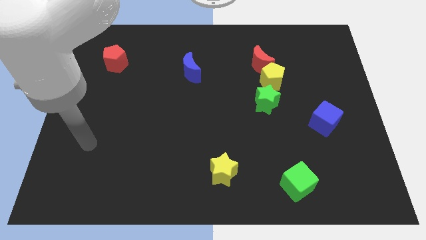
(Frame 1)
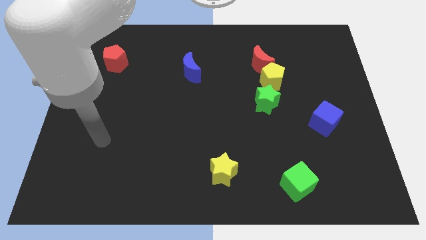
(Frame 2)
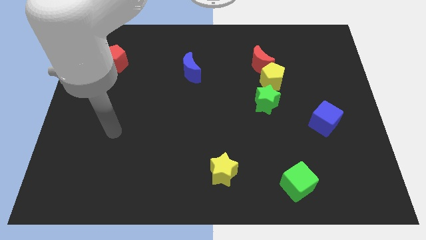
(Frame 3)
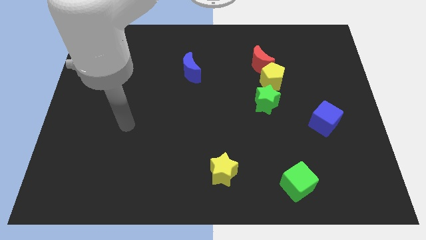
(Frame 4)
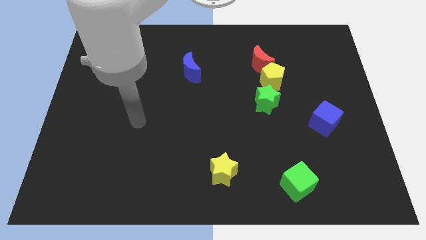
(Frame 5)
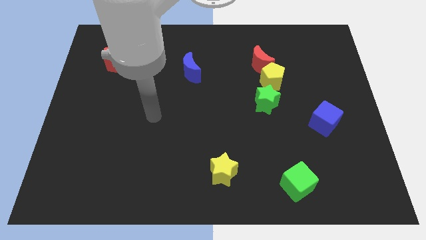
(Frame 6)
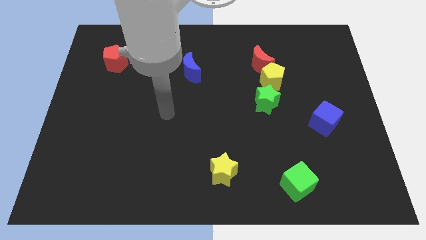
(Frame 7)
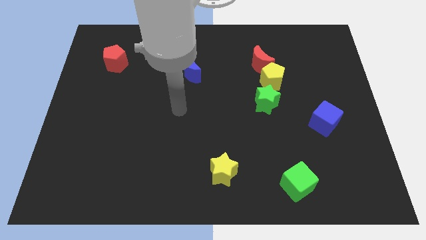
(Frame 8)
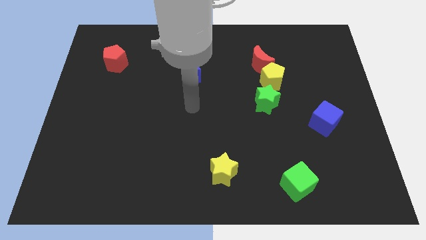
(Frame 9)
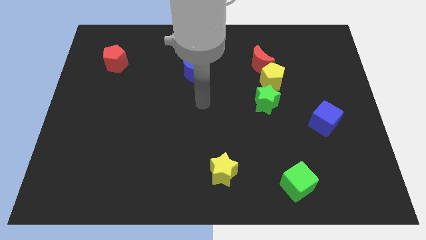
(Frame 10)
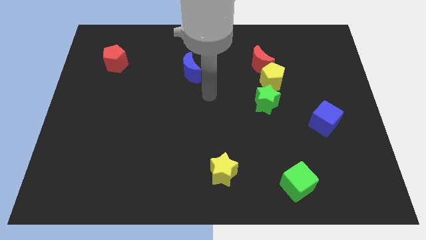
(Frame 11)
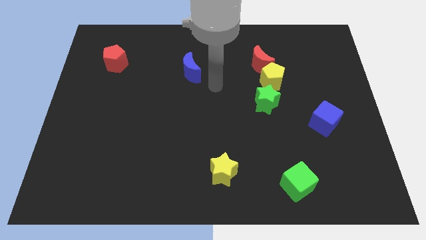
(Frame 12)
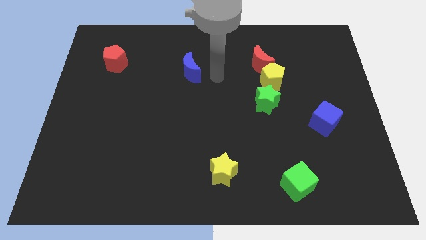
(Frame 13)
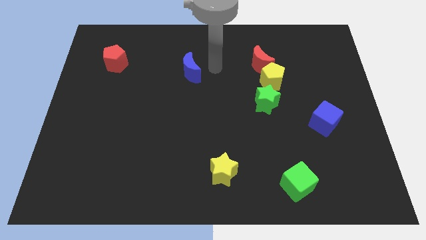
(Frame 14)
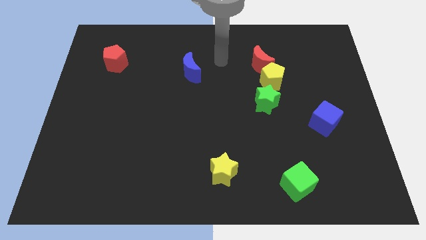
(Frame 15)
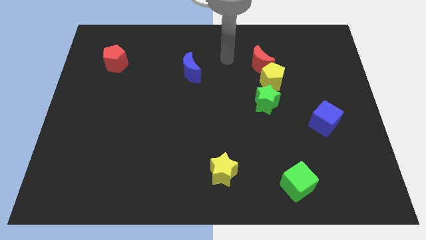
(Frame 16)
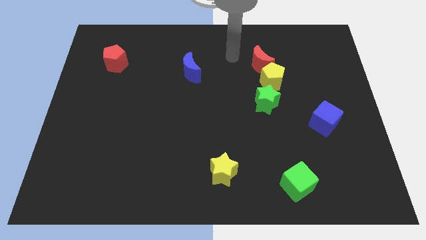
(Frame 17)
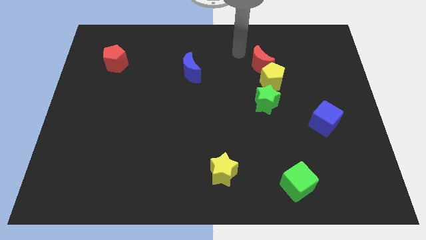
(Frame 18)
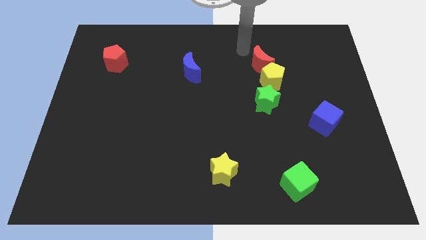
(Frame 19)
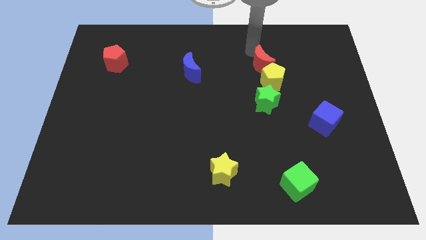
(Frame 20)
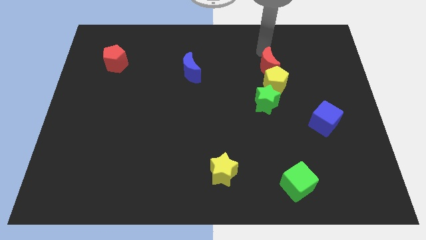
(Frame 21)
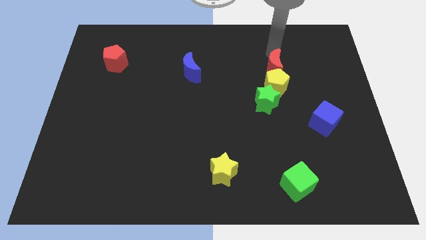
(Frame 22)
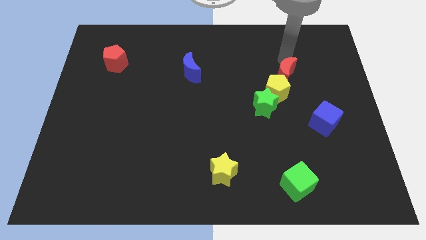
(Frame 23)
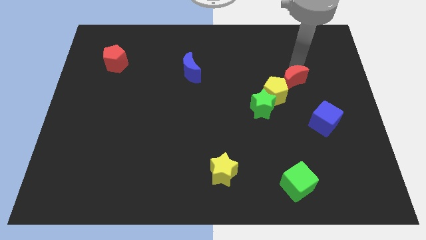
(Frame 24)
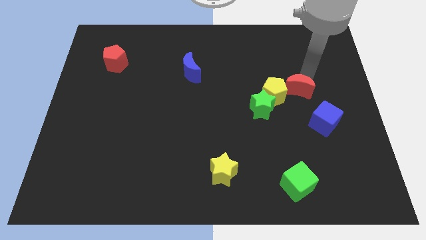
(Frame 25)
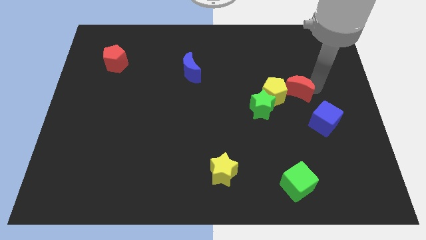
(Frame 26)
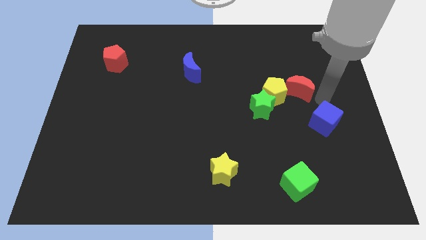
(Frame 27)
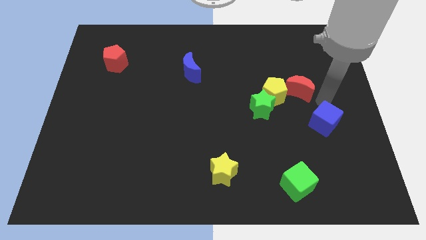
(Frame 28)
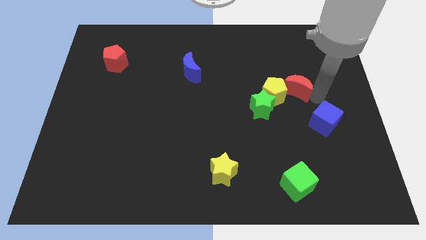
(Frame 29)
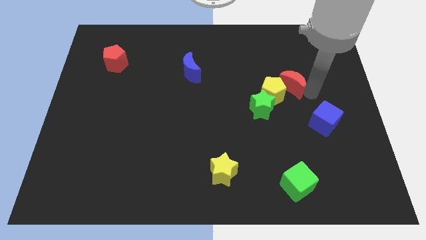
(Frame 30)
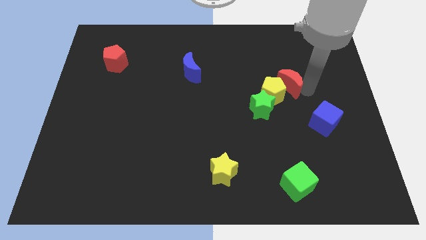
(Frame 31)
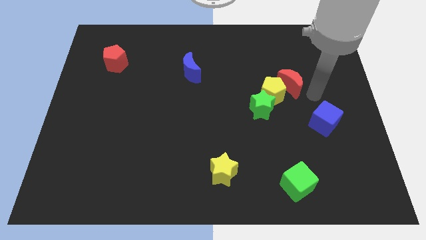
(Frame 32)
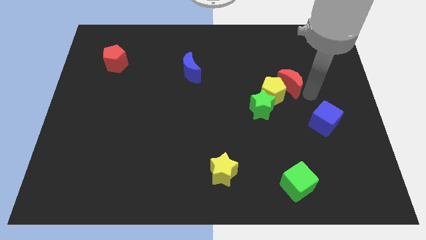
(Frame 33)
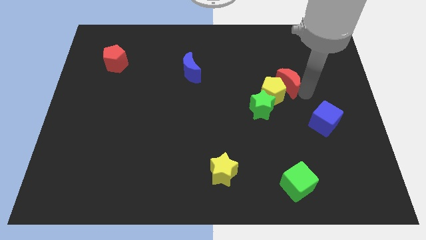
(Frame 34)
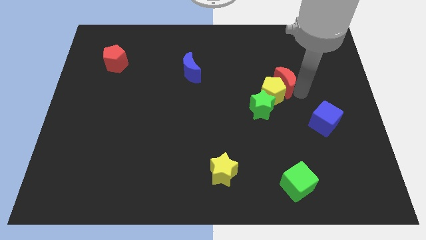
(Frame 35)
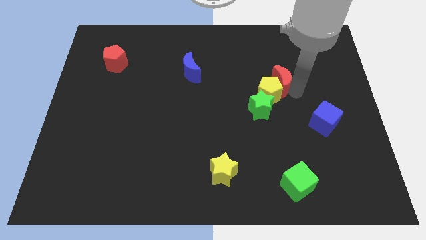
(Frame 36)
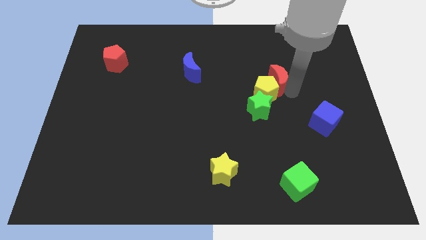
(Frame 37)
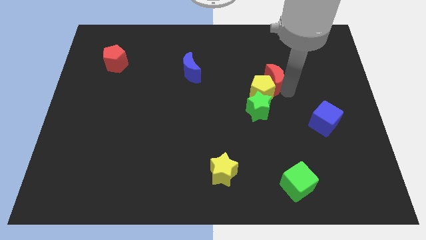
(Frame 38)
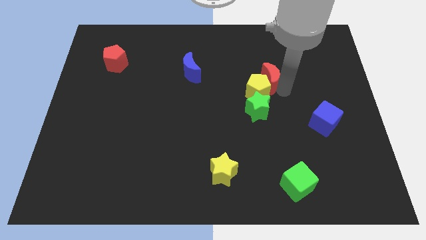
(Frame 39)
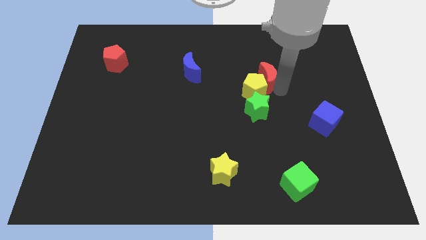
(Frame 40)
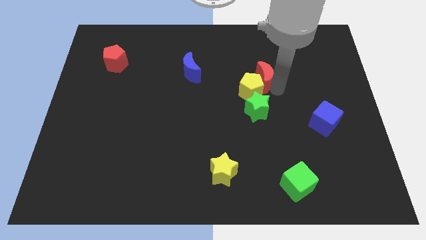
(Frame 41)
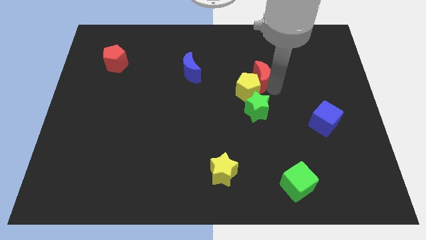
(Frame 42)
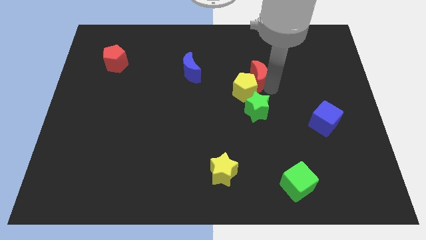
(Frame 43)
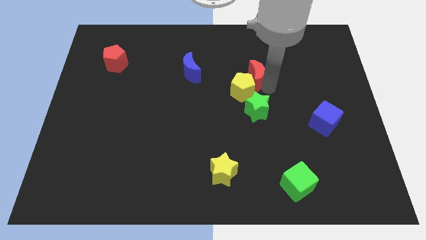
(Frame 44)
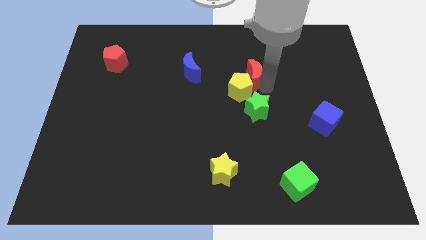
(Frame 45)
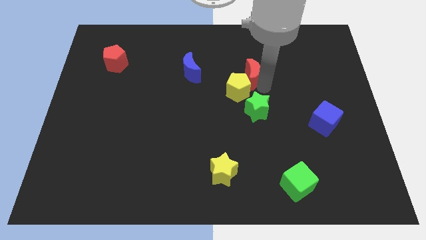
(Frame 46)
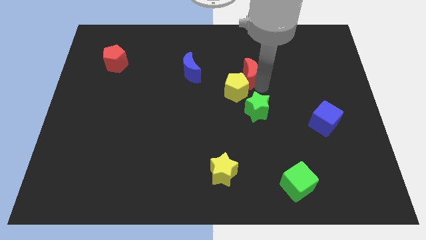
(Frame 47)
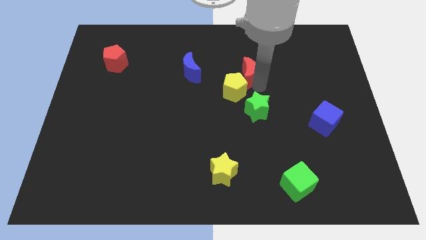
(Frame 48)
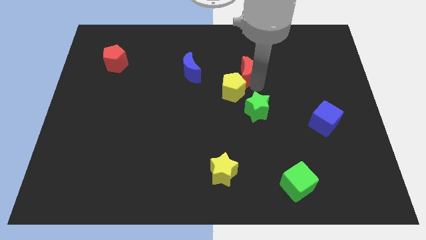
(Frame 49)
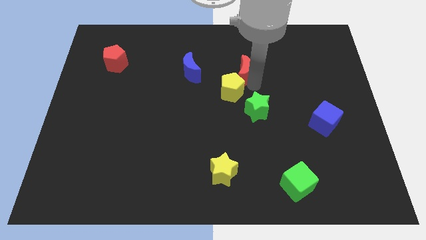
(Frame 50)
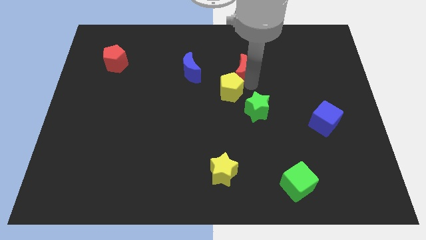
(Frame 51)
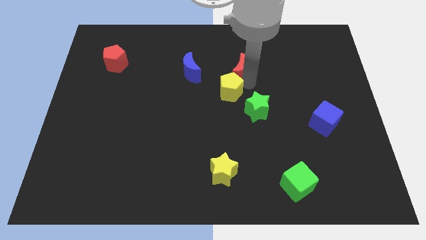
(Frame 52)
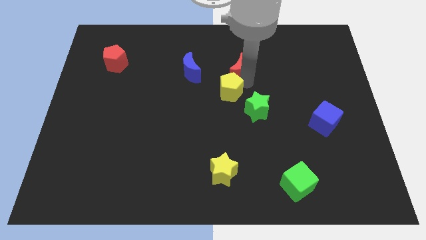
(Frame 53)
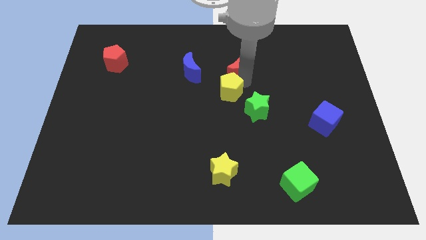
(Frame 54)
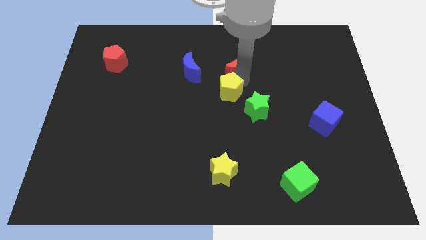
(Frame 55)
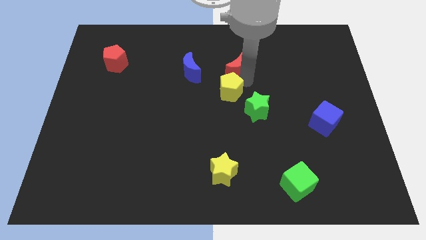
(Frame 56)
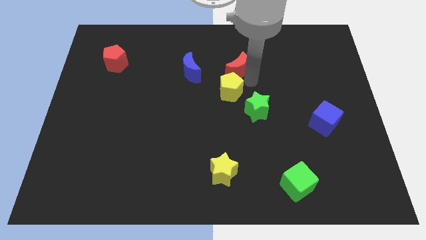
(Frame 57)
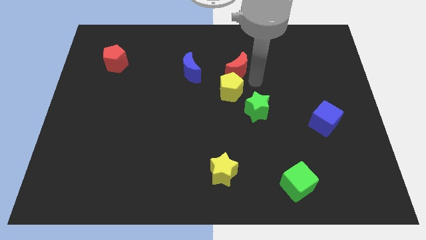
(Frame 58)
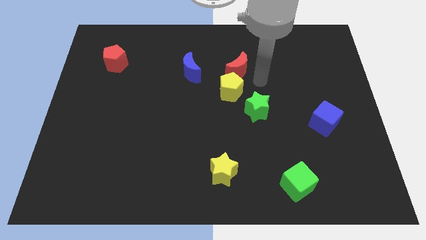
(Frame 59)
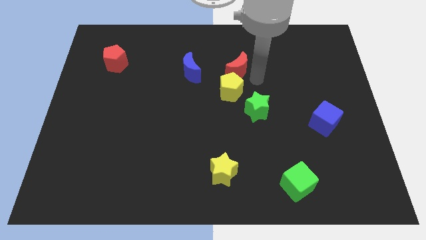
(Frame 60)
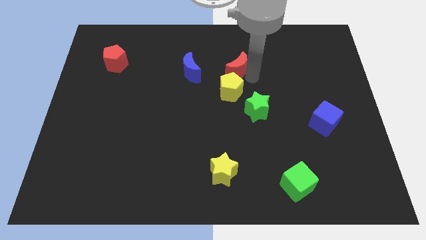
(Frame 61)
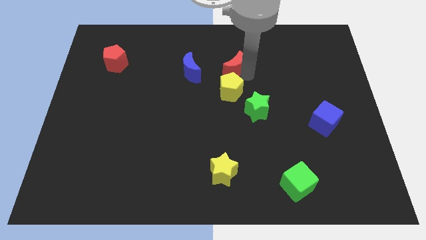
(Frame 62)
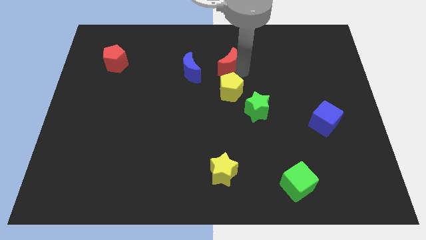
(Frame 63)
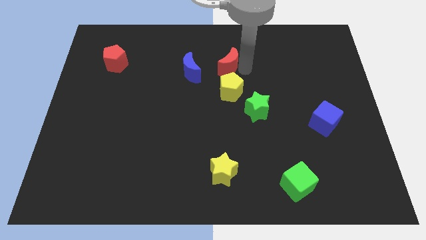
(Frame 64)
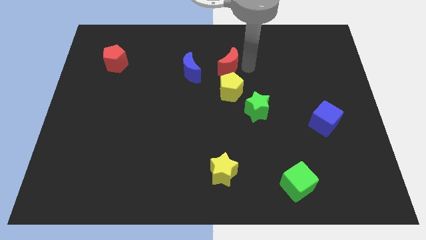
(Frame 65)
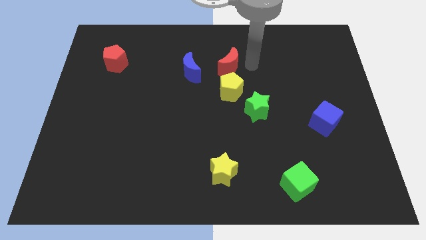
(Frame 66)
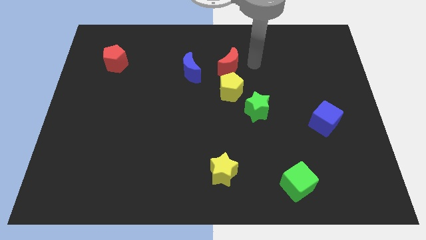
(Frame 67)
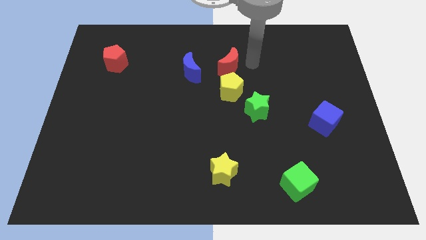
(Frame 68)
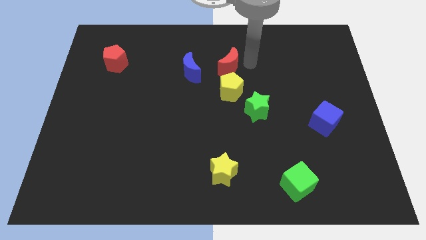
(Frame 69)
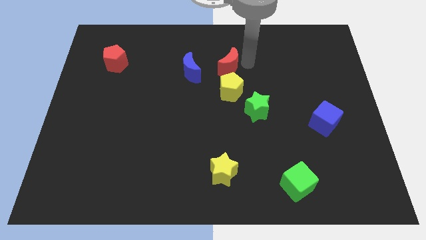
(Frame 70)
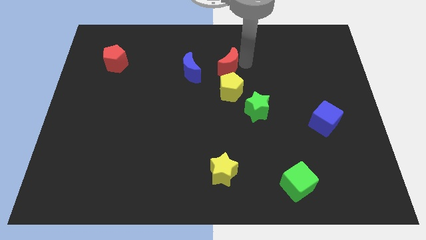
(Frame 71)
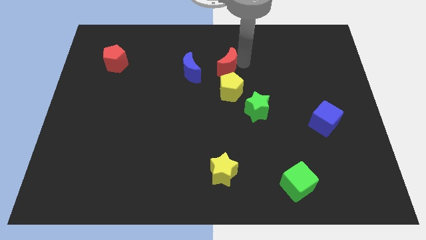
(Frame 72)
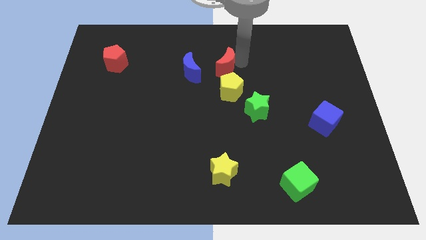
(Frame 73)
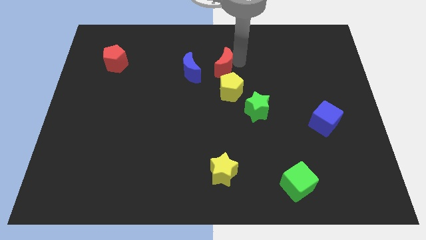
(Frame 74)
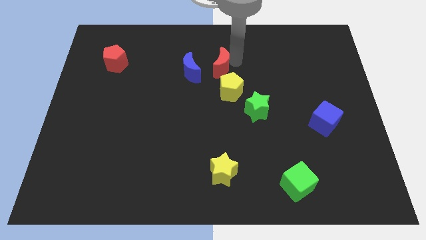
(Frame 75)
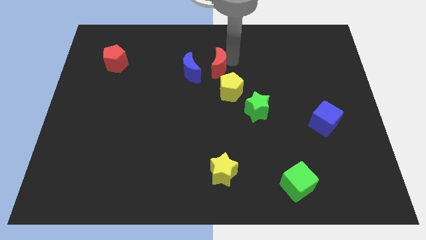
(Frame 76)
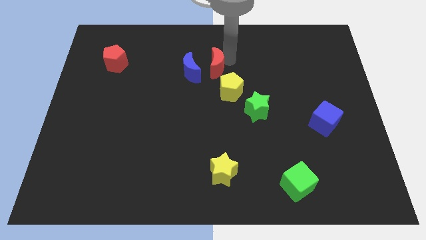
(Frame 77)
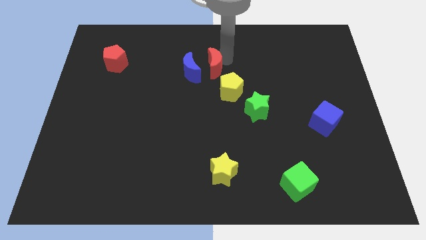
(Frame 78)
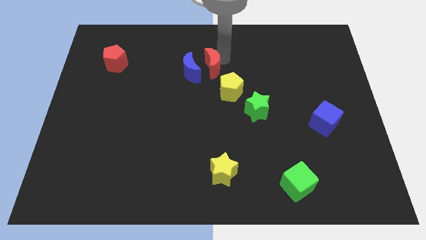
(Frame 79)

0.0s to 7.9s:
slide the red moon towards the blue moon
